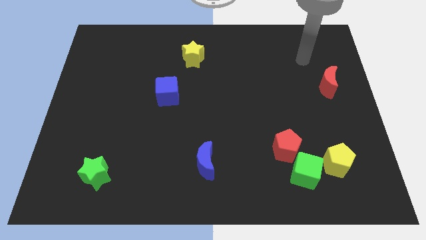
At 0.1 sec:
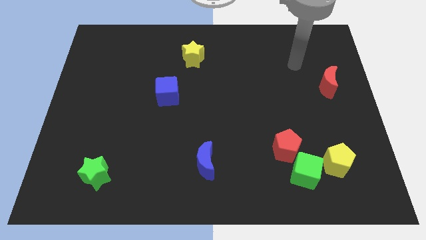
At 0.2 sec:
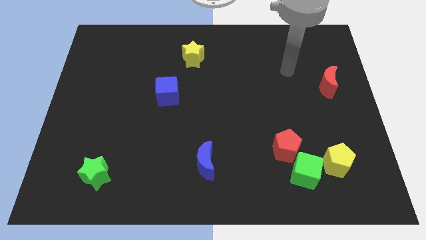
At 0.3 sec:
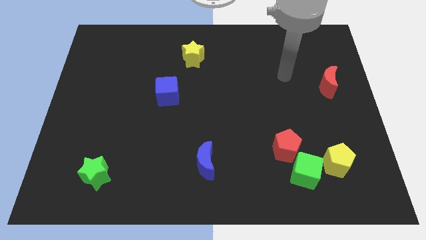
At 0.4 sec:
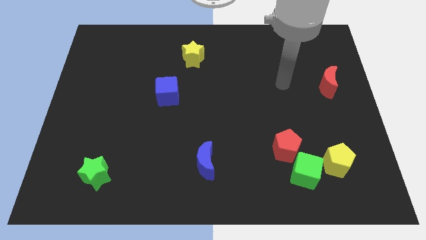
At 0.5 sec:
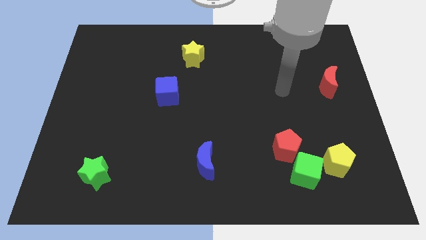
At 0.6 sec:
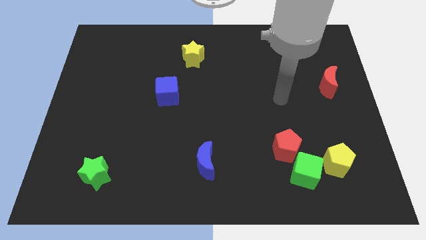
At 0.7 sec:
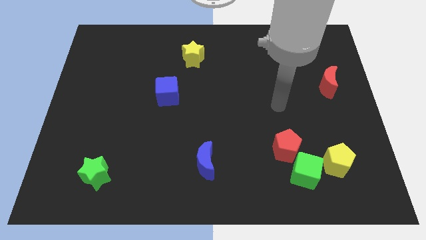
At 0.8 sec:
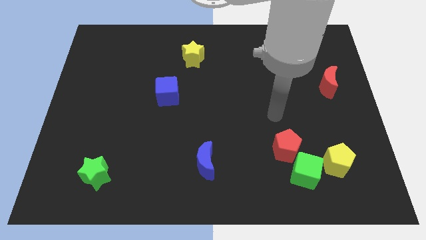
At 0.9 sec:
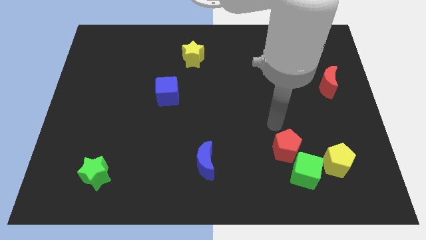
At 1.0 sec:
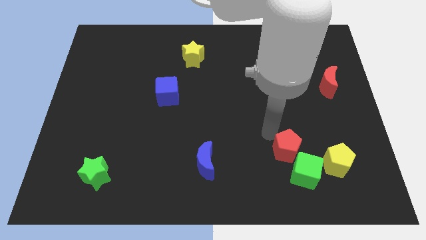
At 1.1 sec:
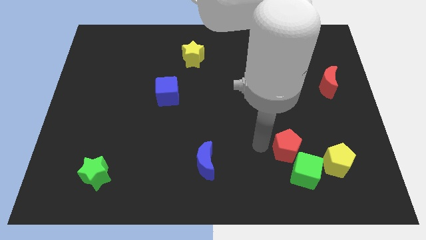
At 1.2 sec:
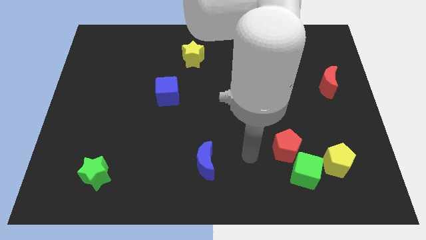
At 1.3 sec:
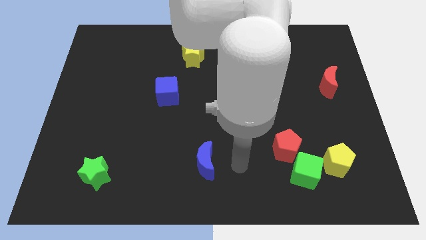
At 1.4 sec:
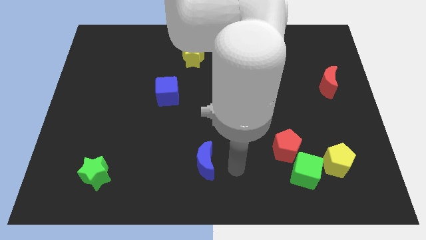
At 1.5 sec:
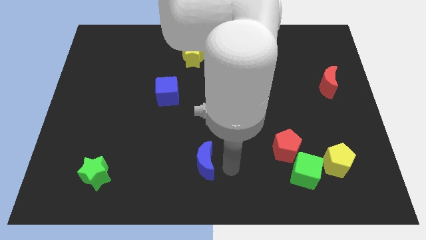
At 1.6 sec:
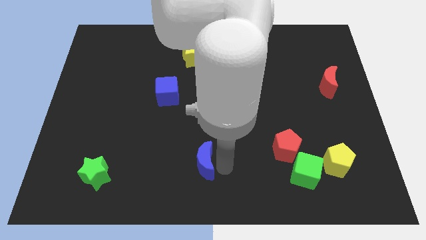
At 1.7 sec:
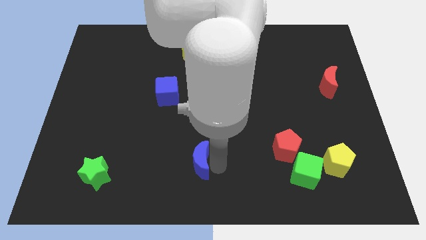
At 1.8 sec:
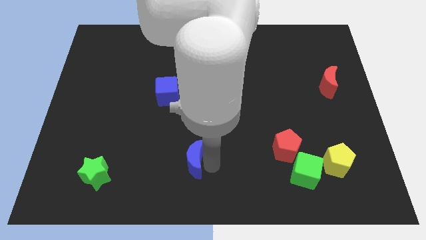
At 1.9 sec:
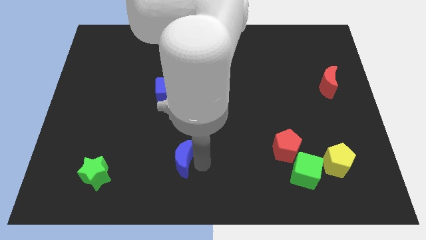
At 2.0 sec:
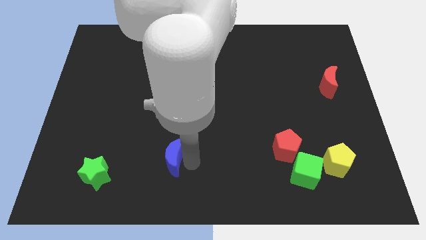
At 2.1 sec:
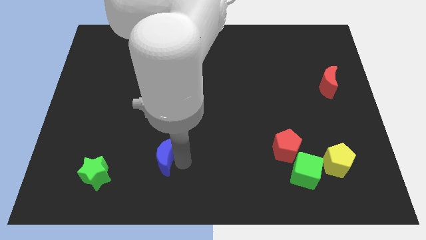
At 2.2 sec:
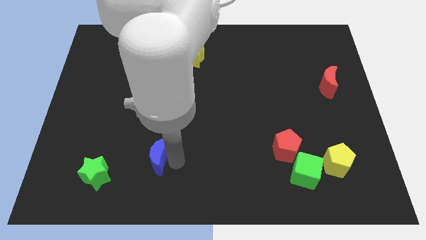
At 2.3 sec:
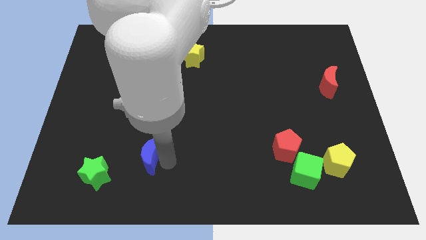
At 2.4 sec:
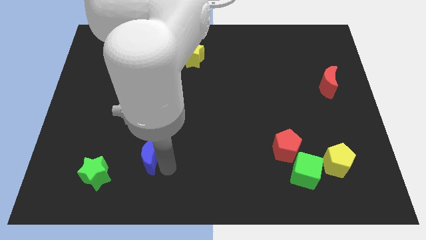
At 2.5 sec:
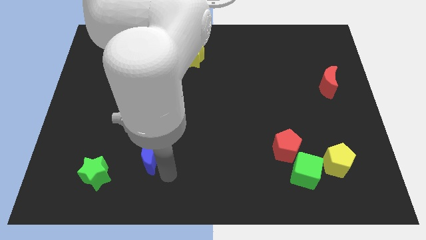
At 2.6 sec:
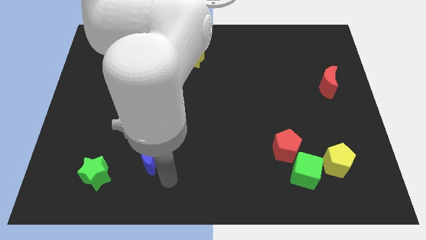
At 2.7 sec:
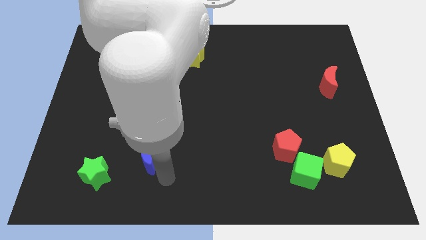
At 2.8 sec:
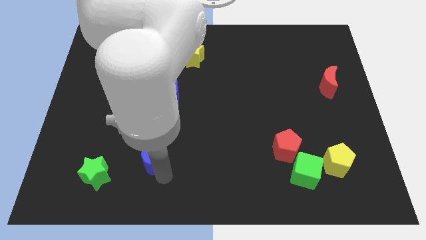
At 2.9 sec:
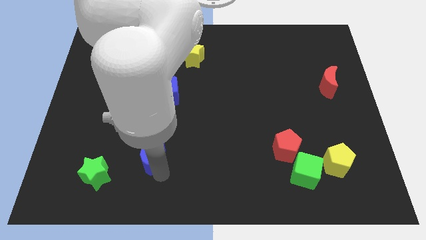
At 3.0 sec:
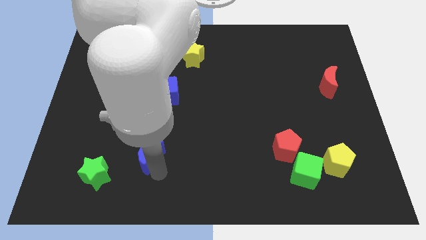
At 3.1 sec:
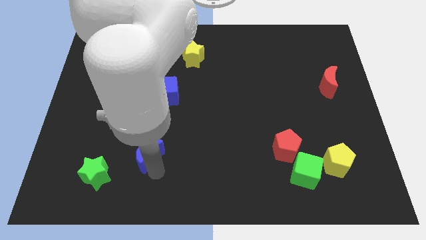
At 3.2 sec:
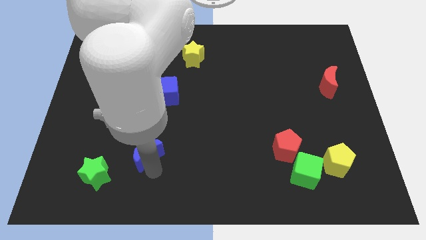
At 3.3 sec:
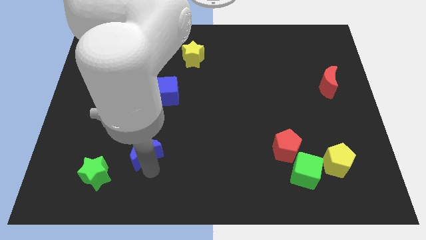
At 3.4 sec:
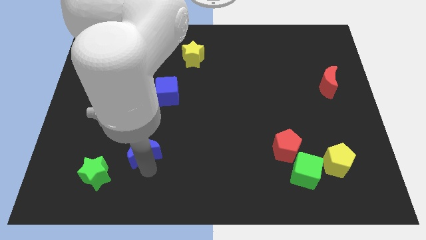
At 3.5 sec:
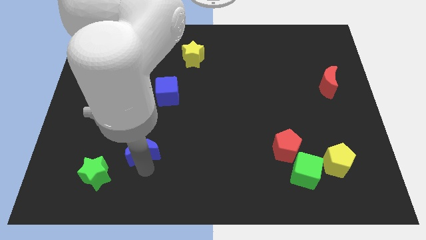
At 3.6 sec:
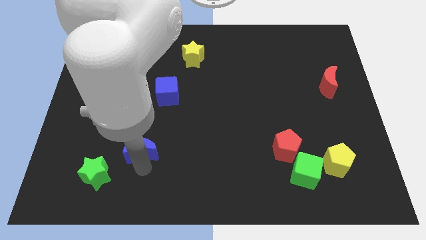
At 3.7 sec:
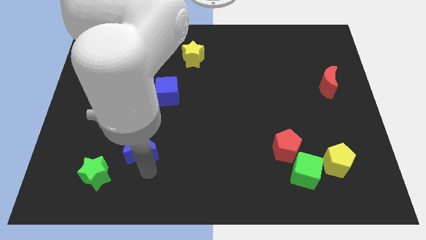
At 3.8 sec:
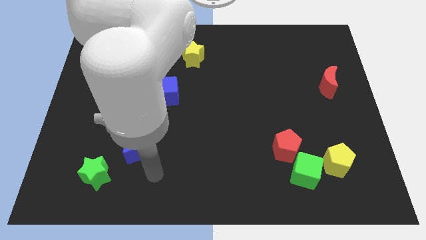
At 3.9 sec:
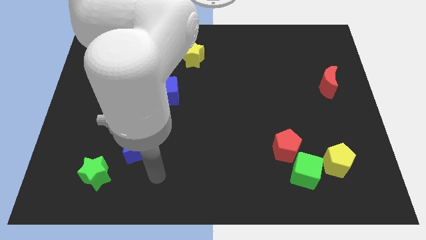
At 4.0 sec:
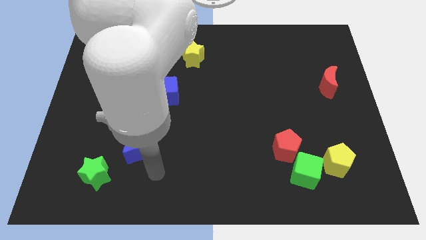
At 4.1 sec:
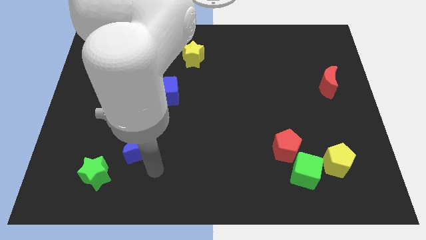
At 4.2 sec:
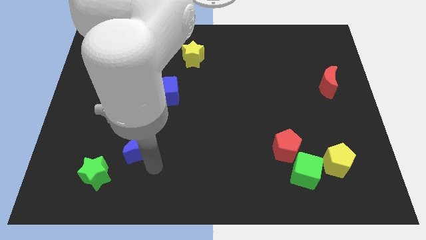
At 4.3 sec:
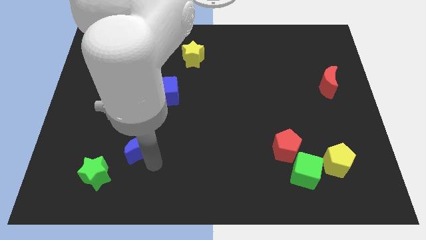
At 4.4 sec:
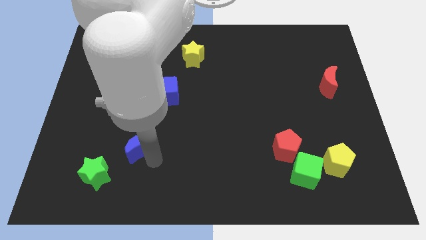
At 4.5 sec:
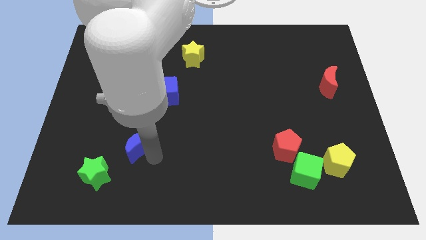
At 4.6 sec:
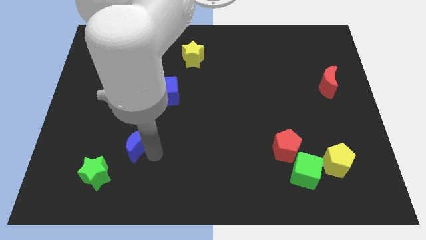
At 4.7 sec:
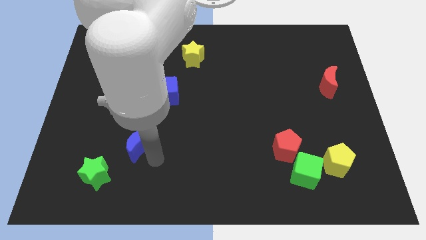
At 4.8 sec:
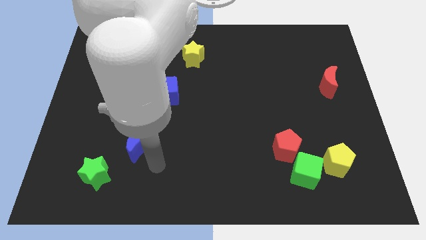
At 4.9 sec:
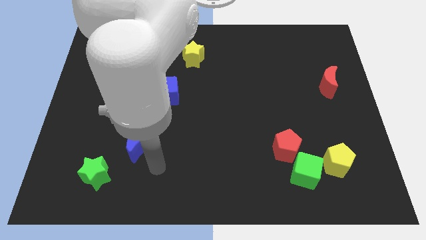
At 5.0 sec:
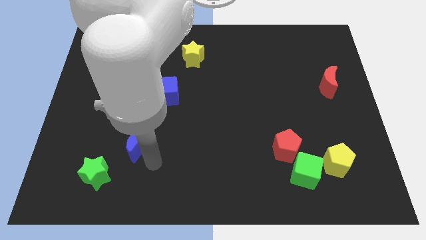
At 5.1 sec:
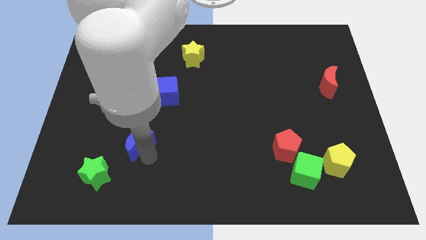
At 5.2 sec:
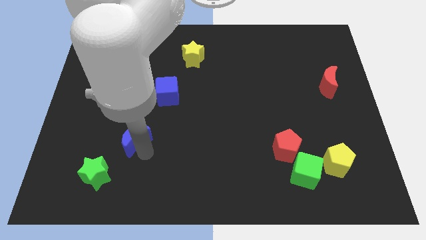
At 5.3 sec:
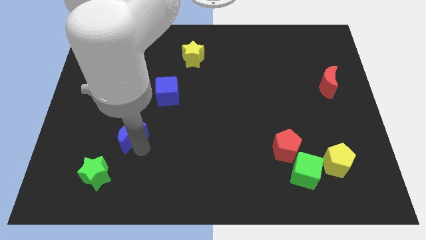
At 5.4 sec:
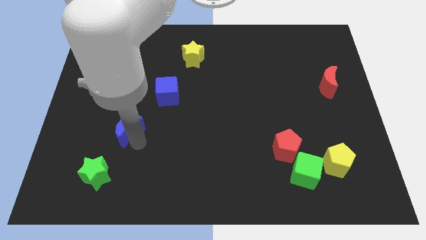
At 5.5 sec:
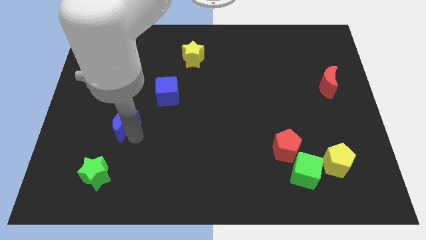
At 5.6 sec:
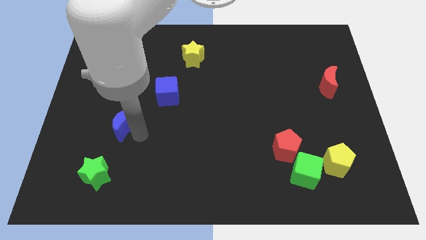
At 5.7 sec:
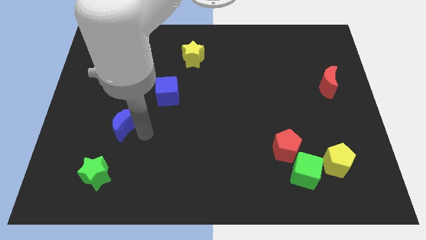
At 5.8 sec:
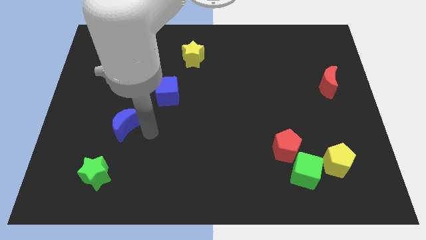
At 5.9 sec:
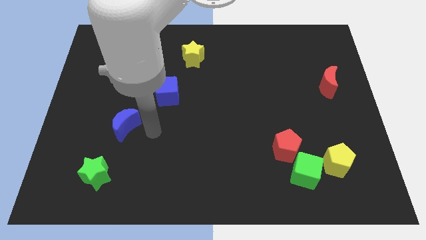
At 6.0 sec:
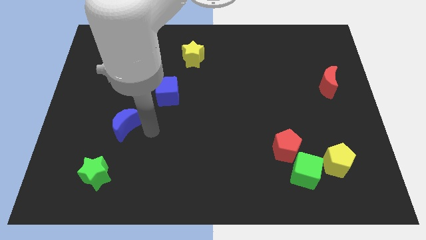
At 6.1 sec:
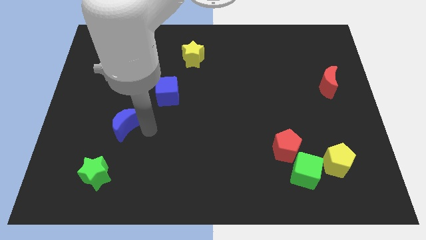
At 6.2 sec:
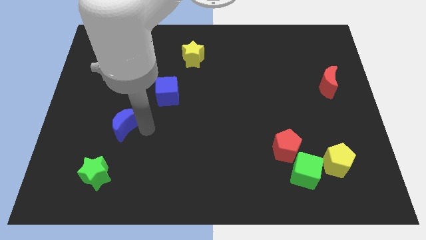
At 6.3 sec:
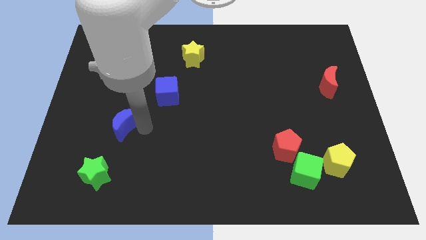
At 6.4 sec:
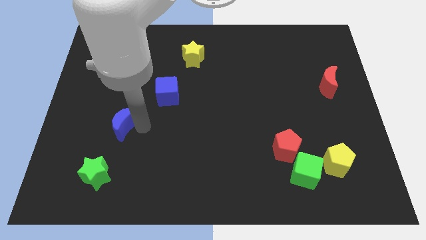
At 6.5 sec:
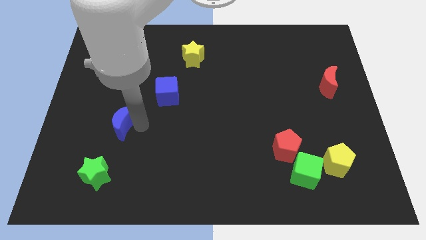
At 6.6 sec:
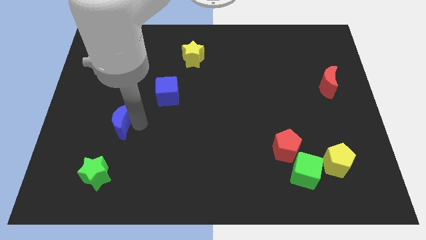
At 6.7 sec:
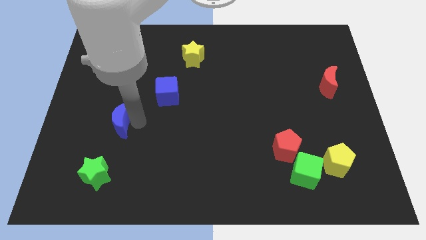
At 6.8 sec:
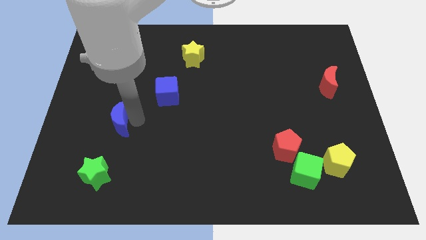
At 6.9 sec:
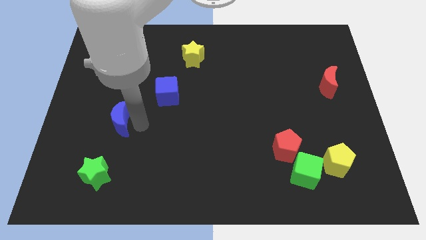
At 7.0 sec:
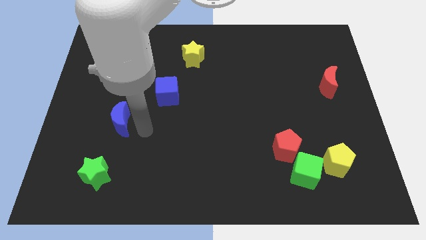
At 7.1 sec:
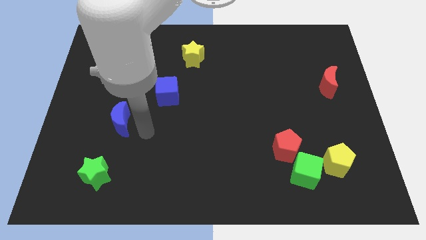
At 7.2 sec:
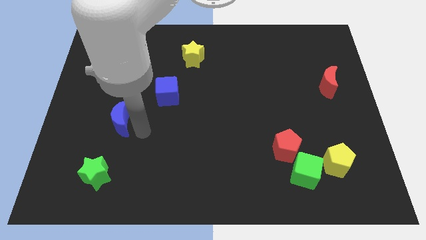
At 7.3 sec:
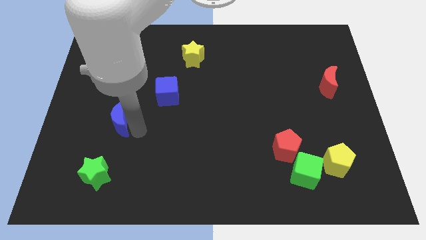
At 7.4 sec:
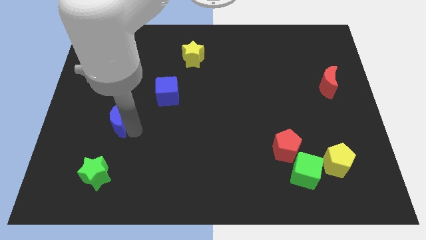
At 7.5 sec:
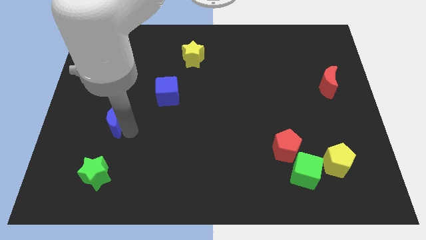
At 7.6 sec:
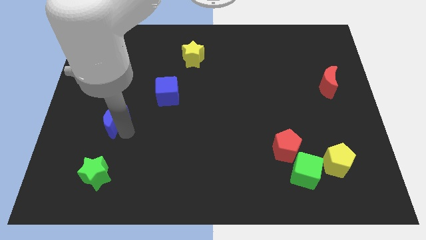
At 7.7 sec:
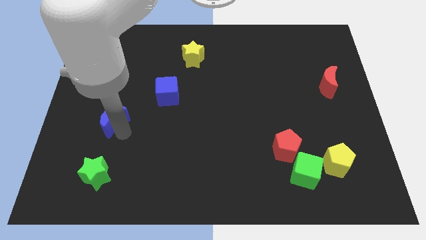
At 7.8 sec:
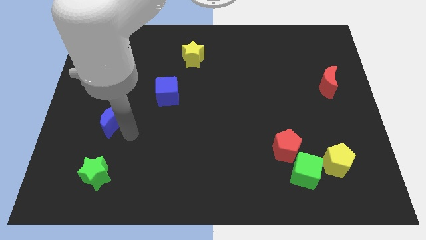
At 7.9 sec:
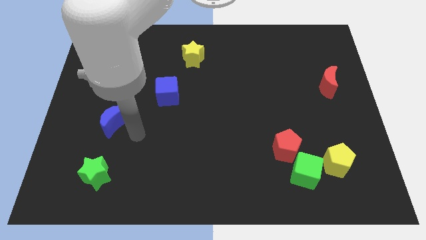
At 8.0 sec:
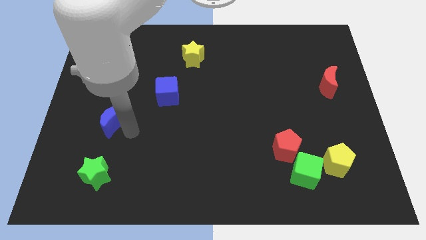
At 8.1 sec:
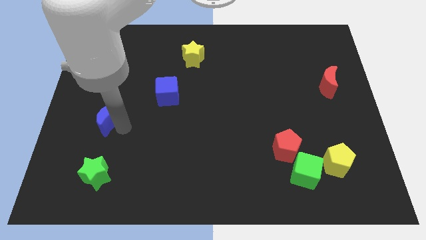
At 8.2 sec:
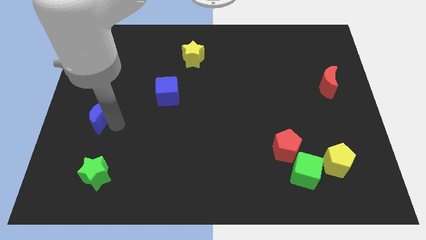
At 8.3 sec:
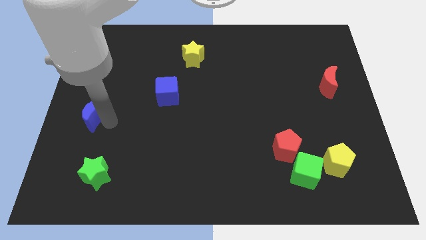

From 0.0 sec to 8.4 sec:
push the blue moon to the center left
